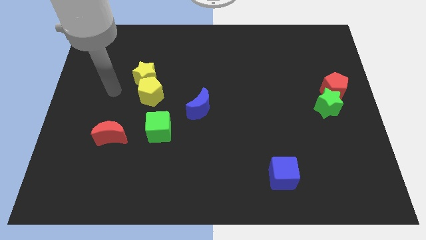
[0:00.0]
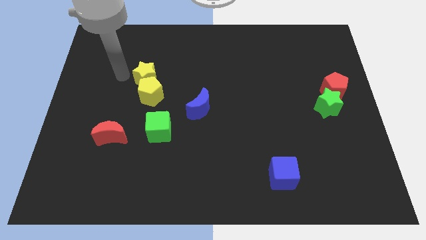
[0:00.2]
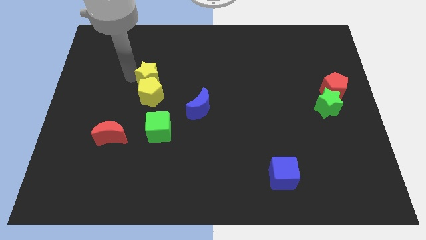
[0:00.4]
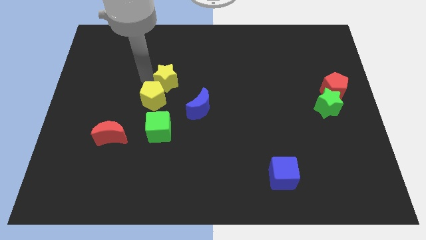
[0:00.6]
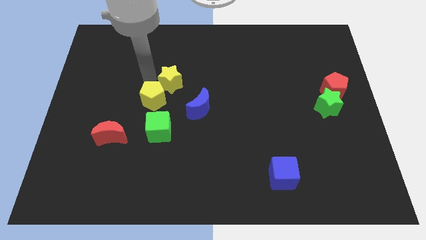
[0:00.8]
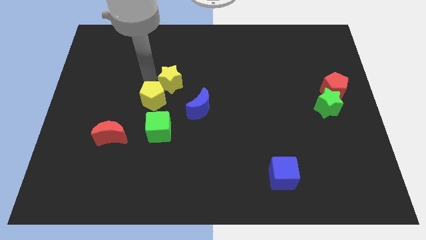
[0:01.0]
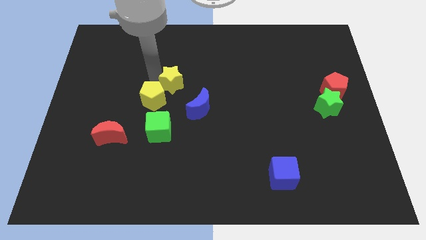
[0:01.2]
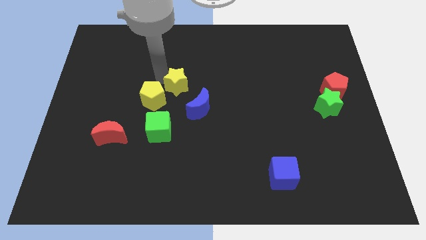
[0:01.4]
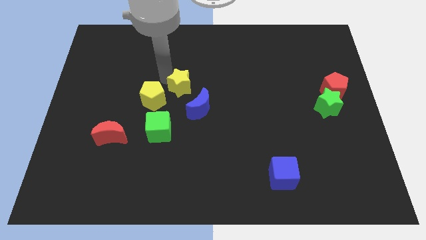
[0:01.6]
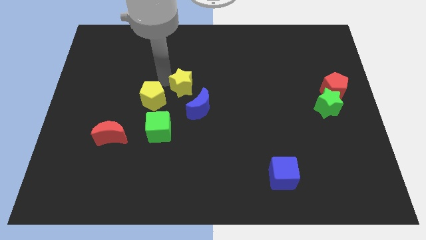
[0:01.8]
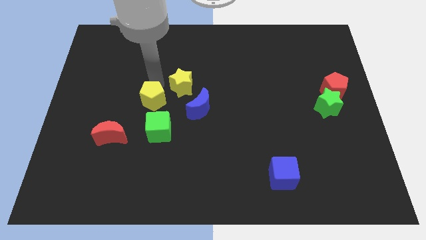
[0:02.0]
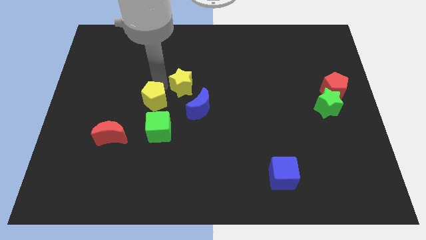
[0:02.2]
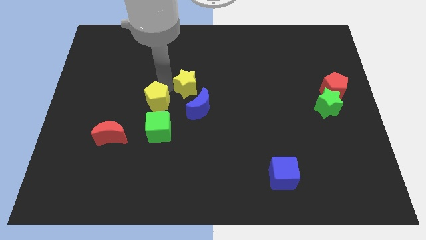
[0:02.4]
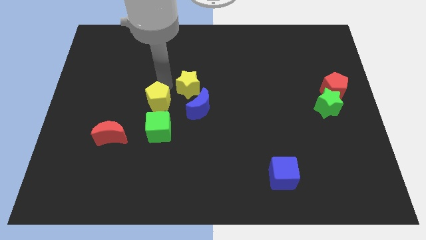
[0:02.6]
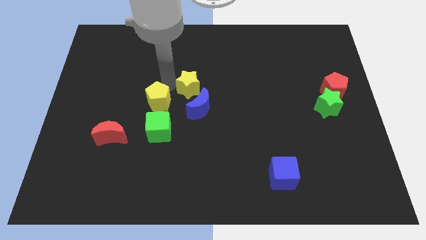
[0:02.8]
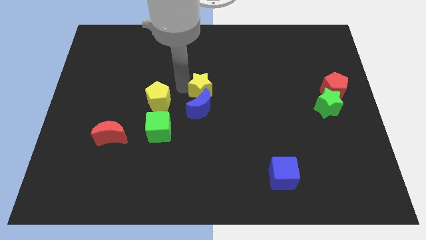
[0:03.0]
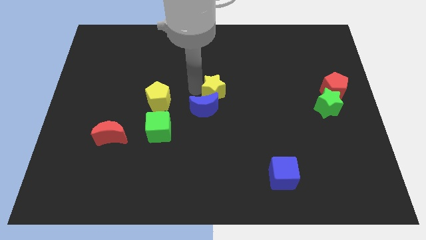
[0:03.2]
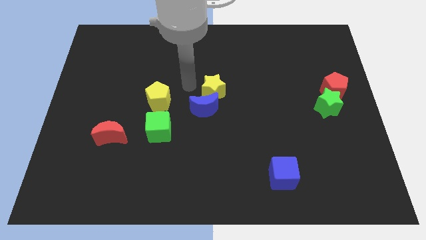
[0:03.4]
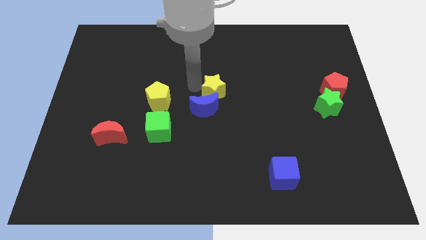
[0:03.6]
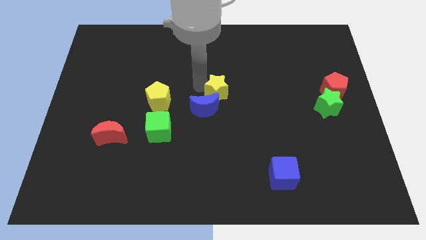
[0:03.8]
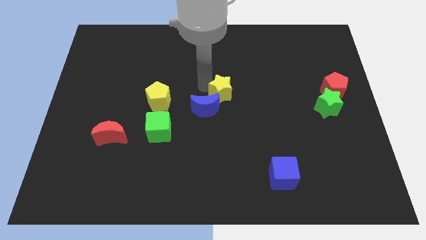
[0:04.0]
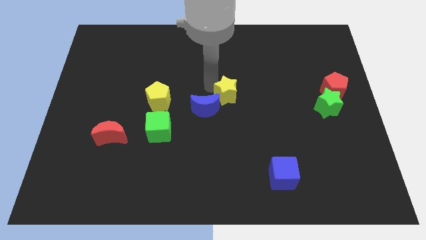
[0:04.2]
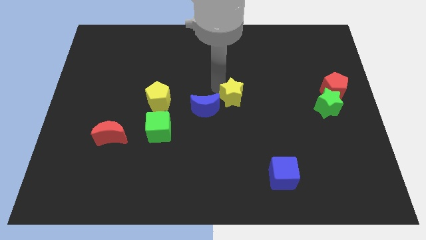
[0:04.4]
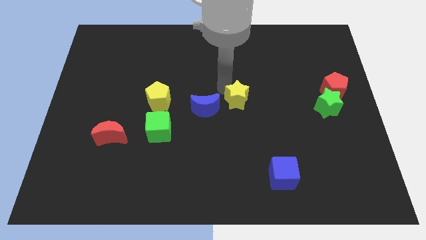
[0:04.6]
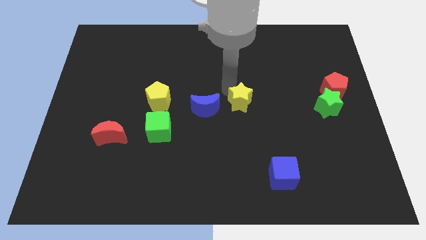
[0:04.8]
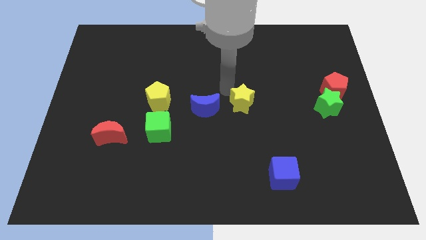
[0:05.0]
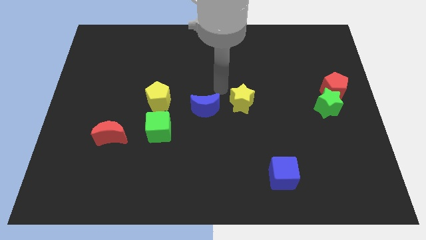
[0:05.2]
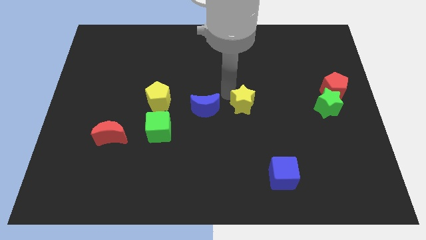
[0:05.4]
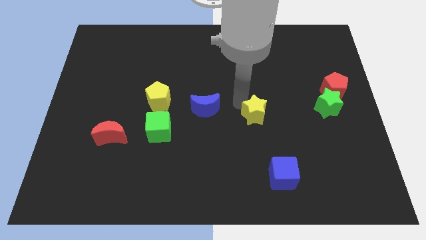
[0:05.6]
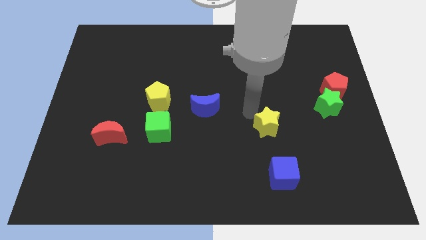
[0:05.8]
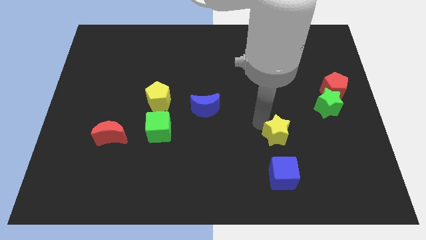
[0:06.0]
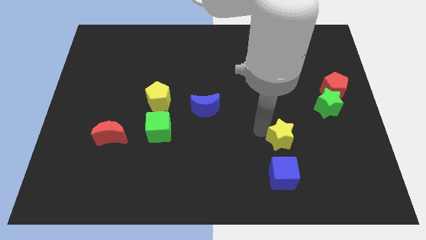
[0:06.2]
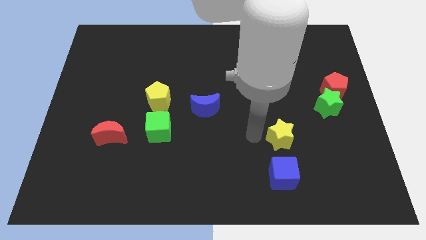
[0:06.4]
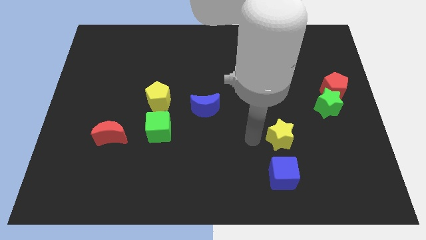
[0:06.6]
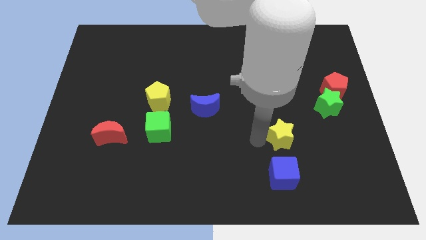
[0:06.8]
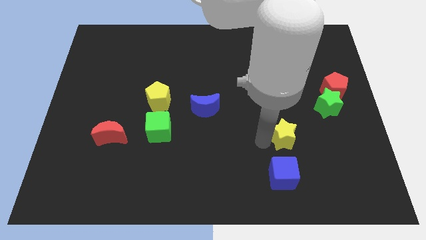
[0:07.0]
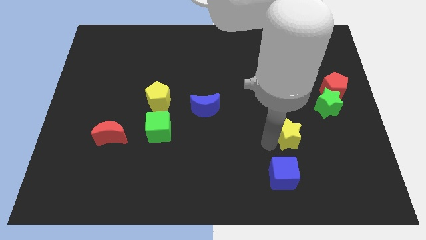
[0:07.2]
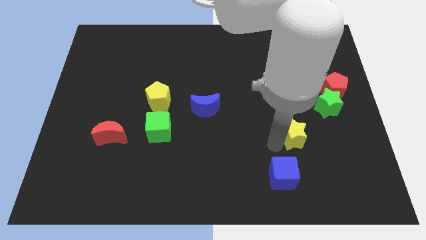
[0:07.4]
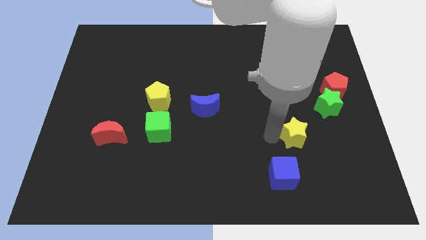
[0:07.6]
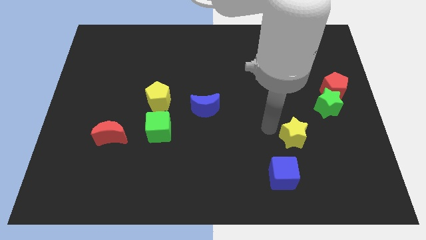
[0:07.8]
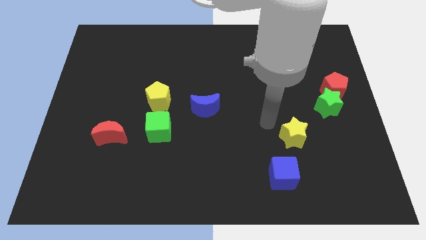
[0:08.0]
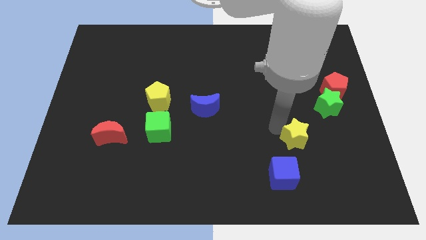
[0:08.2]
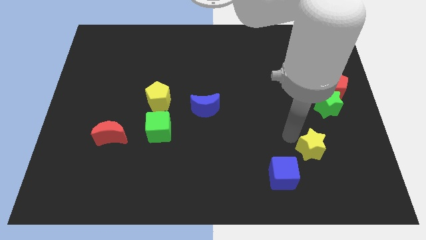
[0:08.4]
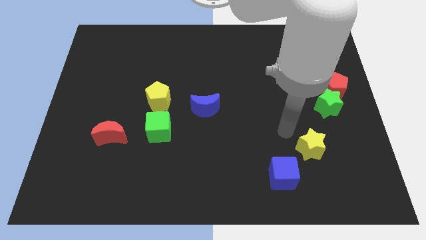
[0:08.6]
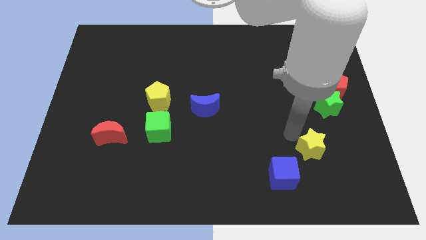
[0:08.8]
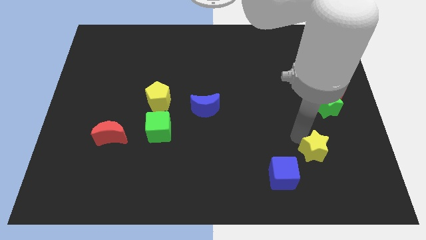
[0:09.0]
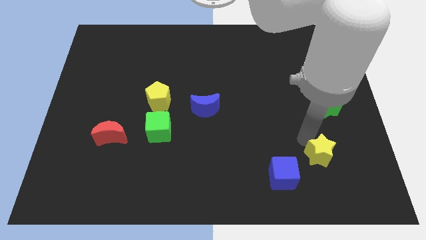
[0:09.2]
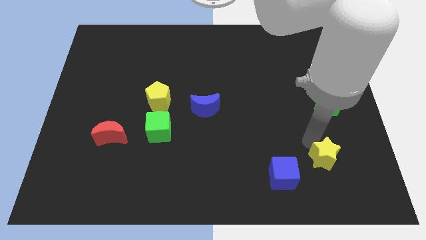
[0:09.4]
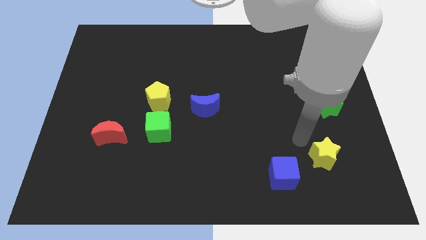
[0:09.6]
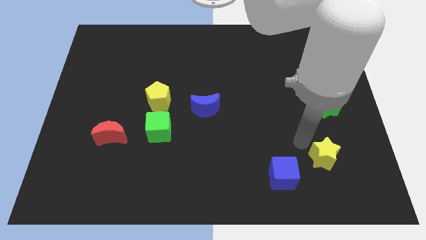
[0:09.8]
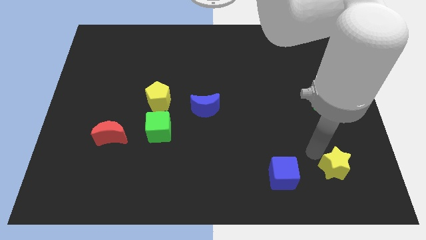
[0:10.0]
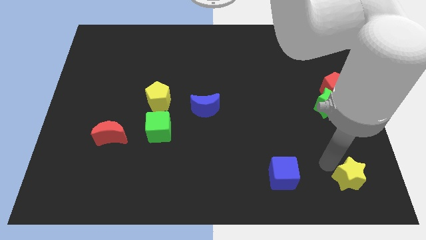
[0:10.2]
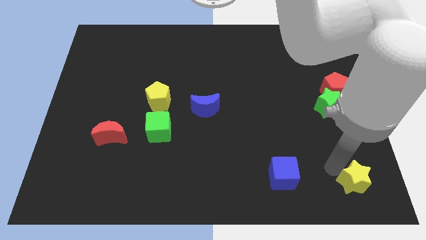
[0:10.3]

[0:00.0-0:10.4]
slide the yellow star to the bottom right

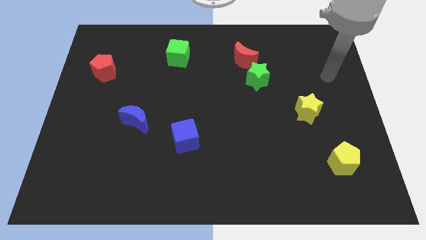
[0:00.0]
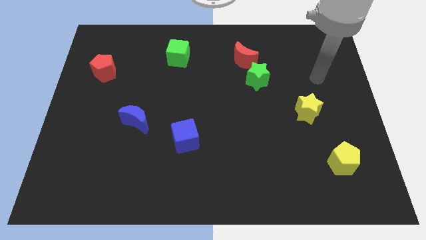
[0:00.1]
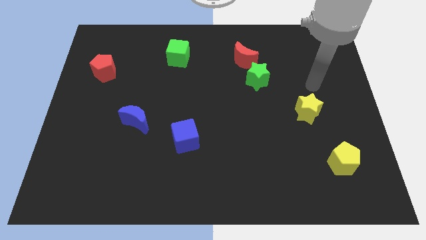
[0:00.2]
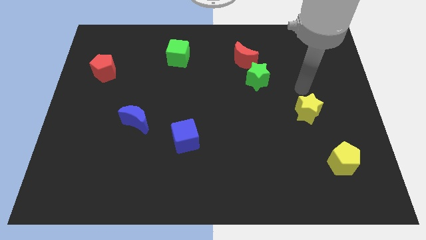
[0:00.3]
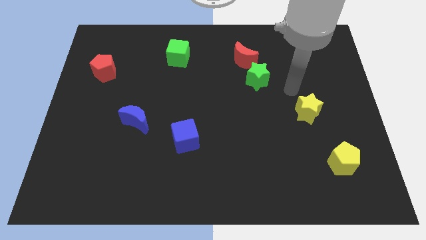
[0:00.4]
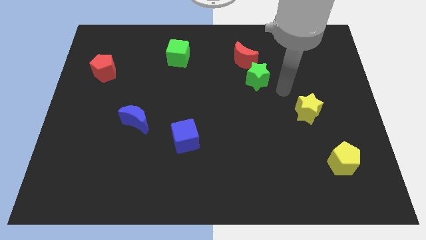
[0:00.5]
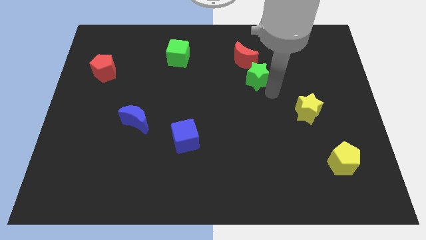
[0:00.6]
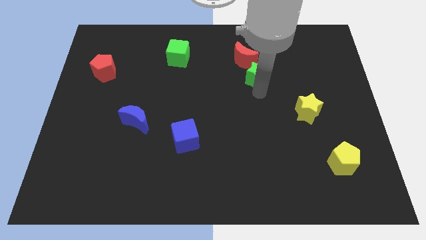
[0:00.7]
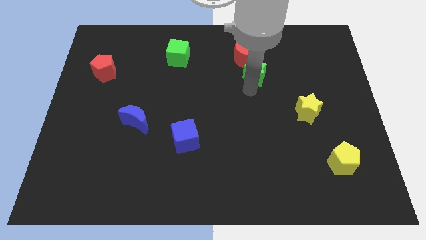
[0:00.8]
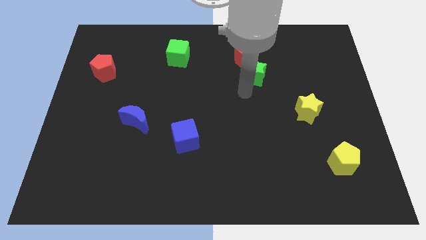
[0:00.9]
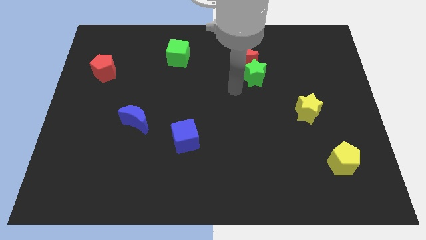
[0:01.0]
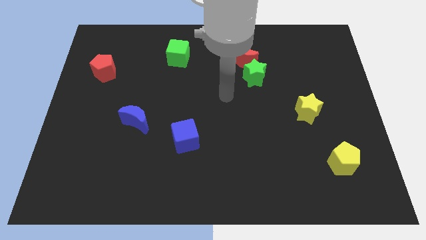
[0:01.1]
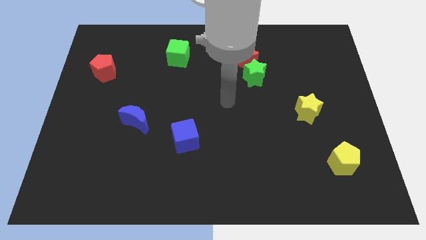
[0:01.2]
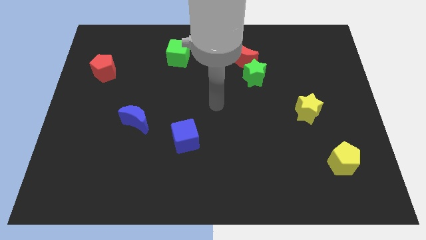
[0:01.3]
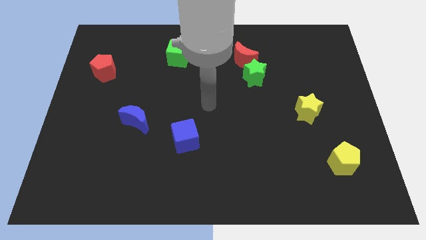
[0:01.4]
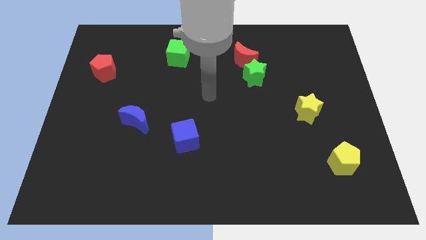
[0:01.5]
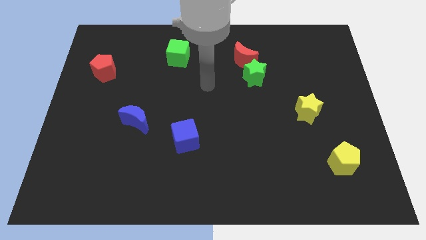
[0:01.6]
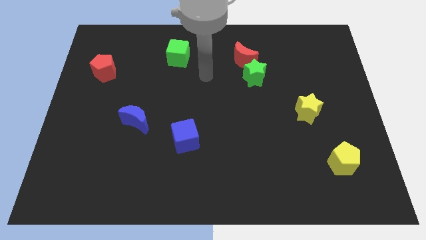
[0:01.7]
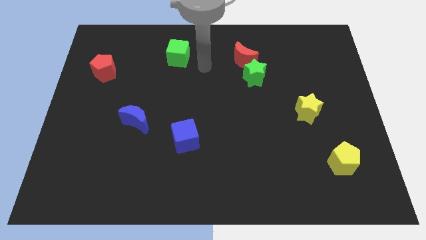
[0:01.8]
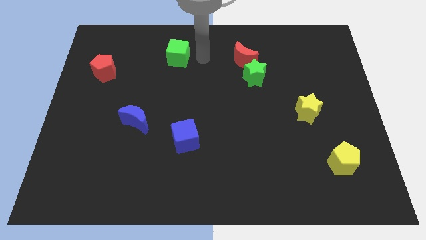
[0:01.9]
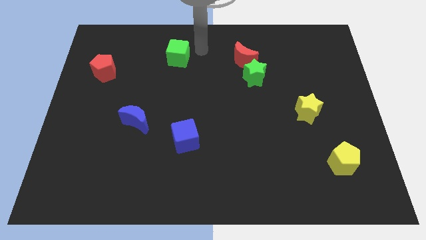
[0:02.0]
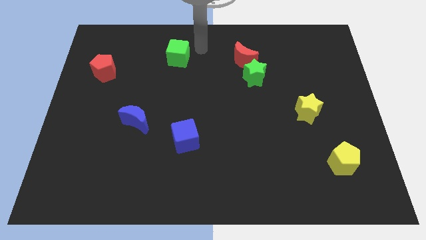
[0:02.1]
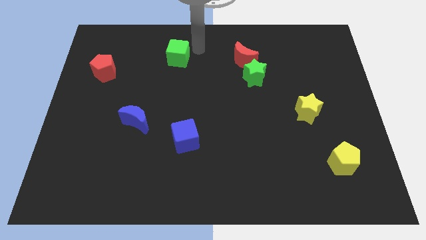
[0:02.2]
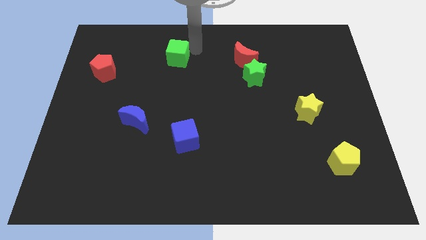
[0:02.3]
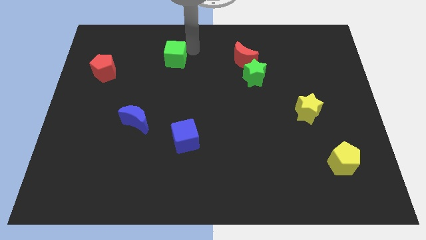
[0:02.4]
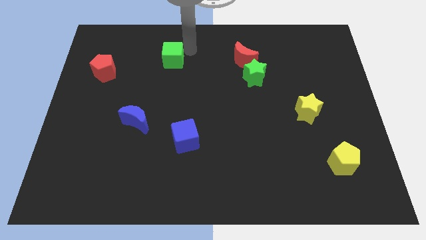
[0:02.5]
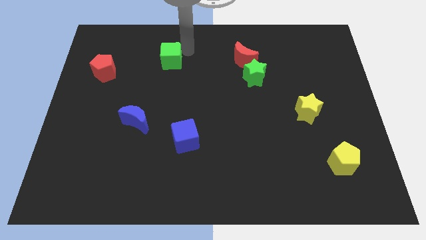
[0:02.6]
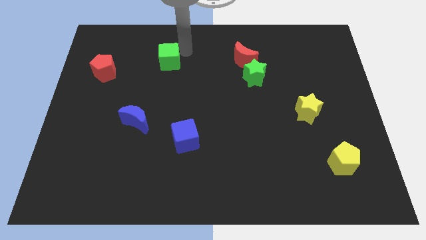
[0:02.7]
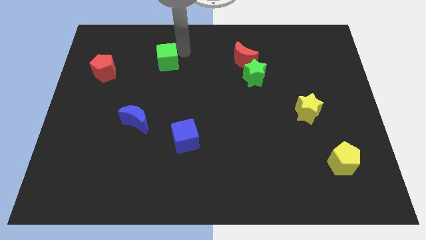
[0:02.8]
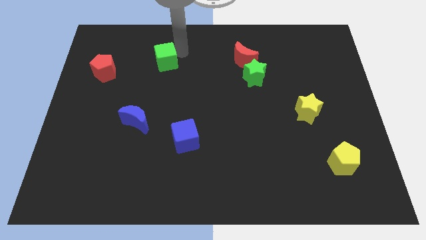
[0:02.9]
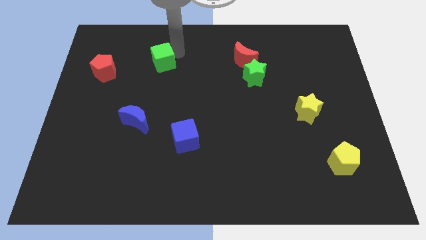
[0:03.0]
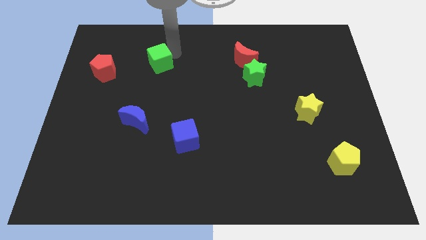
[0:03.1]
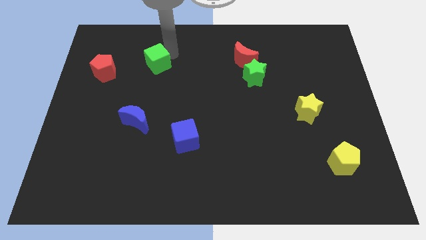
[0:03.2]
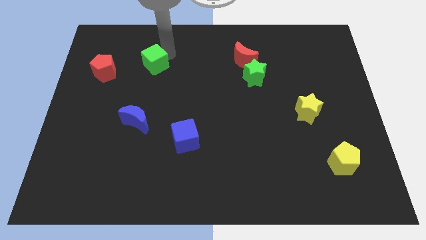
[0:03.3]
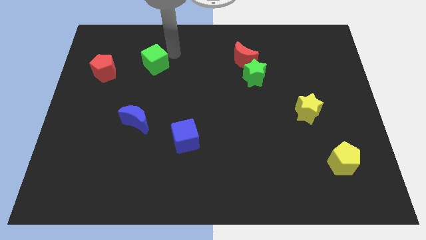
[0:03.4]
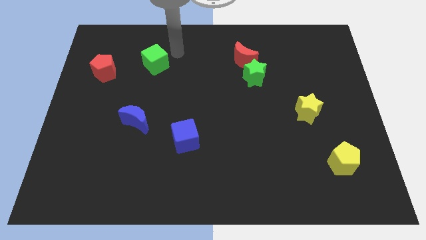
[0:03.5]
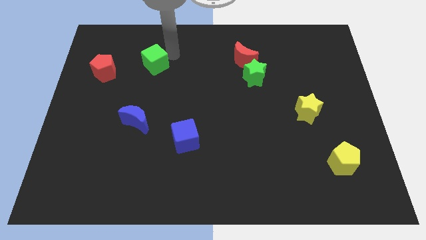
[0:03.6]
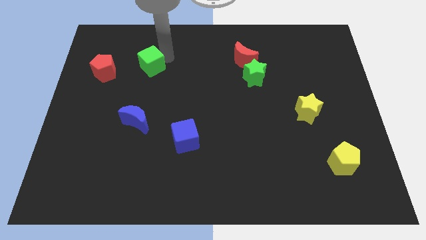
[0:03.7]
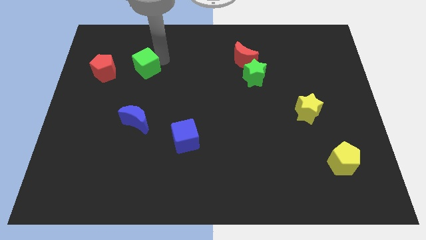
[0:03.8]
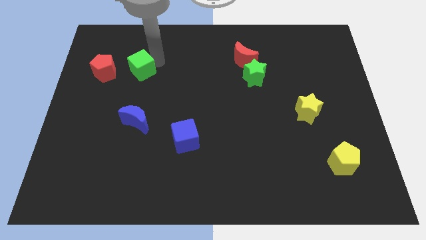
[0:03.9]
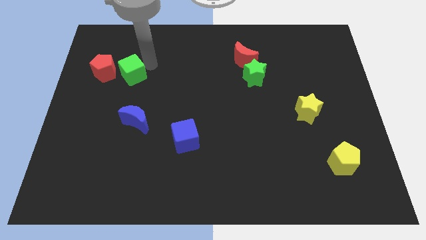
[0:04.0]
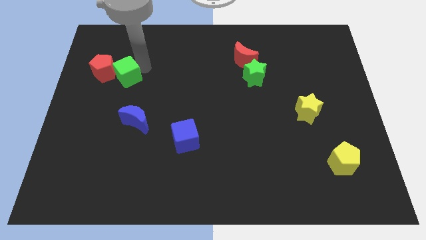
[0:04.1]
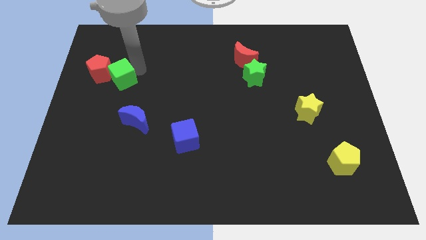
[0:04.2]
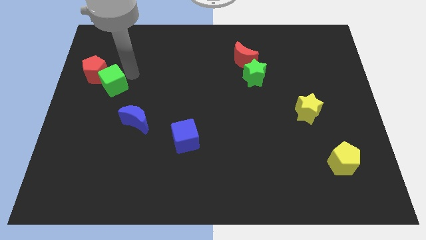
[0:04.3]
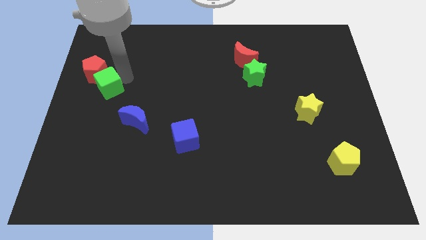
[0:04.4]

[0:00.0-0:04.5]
put the green cube to the center left
